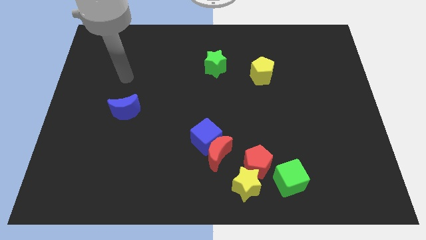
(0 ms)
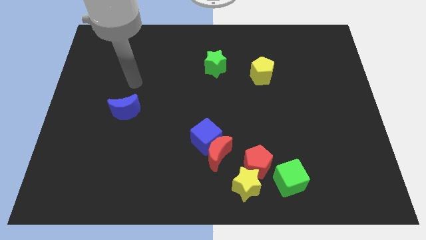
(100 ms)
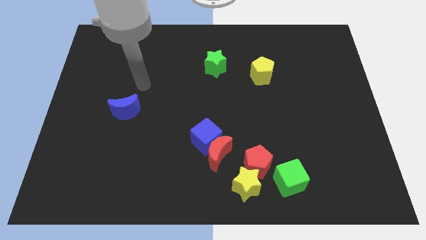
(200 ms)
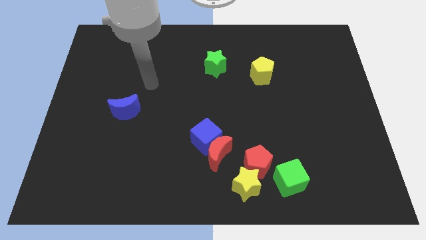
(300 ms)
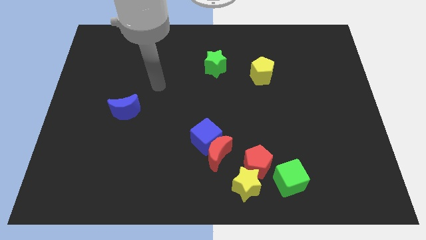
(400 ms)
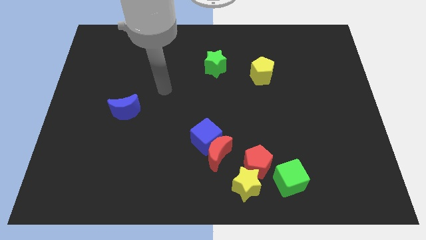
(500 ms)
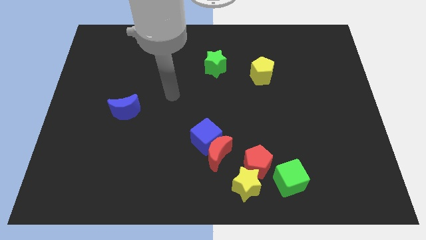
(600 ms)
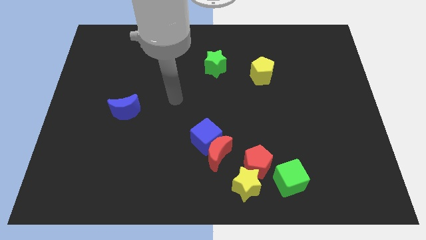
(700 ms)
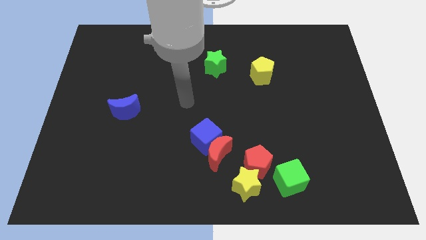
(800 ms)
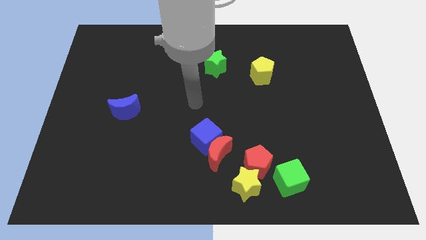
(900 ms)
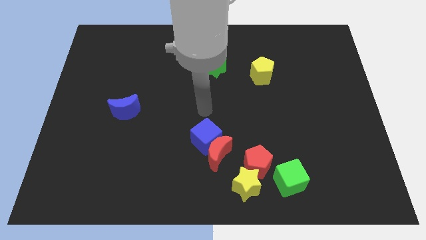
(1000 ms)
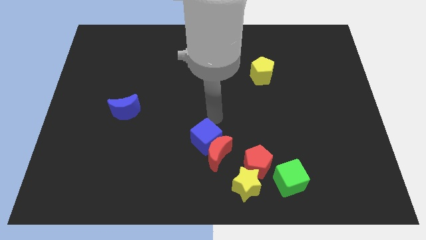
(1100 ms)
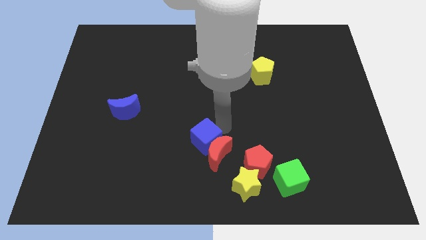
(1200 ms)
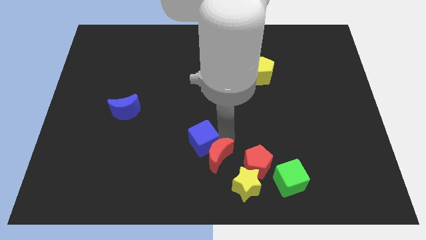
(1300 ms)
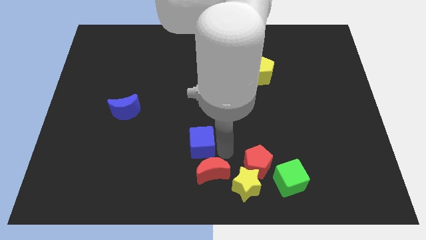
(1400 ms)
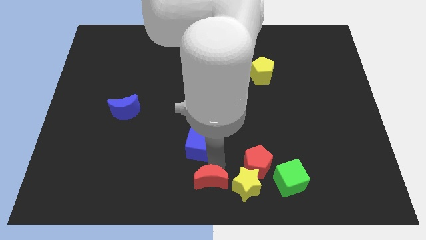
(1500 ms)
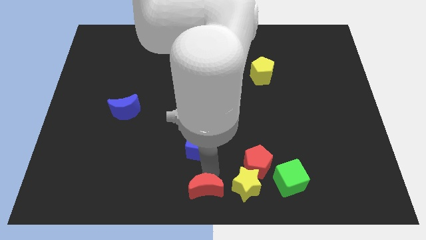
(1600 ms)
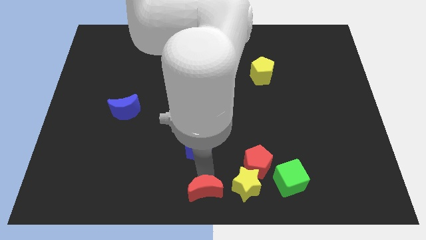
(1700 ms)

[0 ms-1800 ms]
separate the blue cube from the red moon

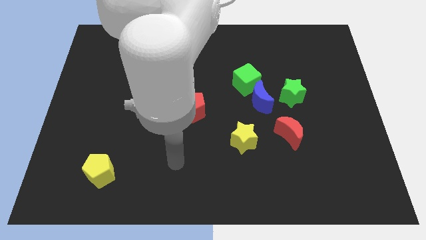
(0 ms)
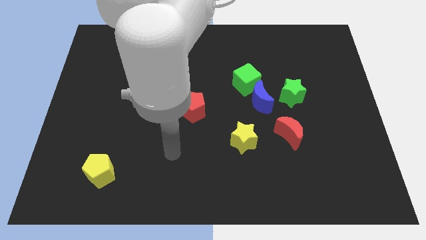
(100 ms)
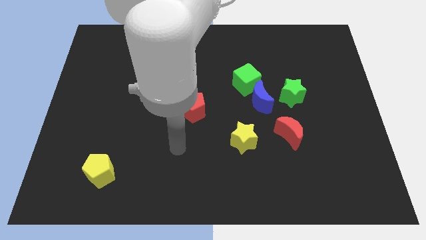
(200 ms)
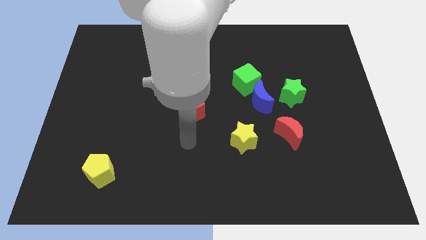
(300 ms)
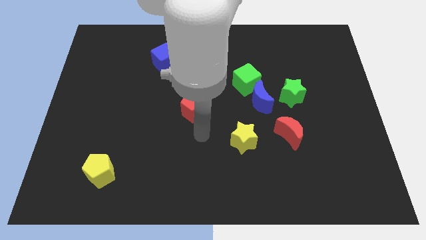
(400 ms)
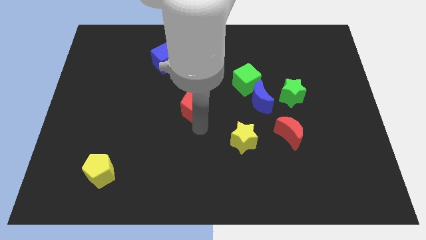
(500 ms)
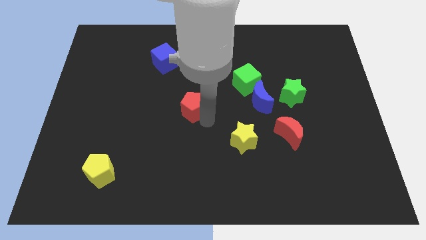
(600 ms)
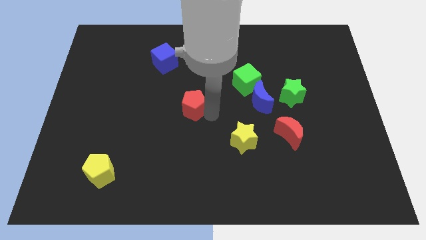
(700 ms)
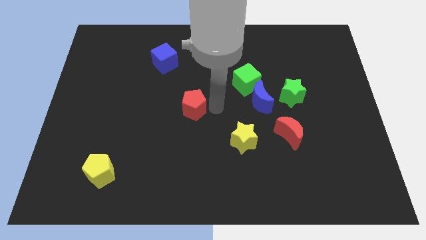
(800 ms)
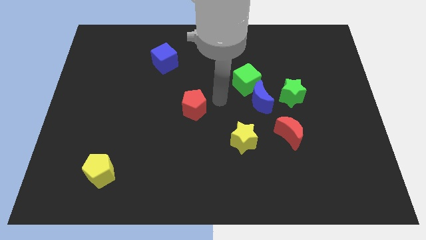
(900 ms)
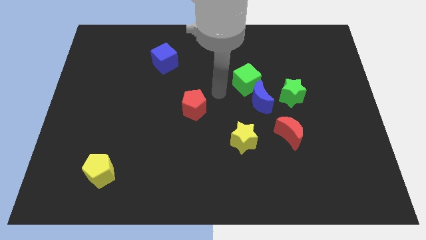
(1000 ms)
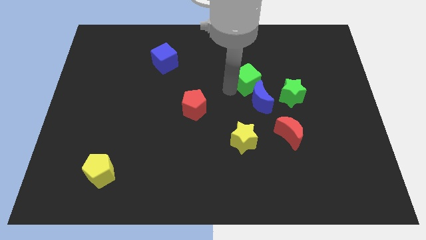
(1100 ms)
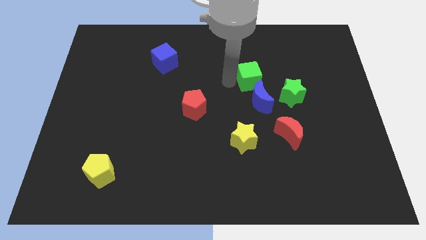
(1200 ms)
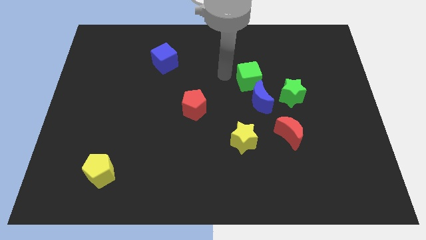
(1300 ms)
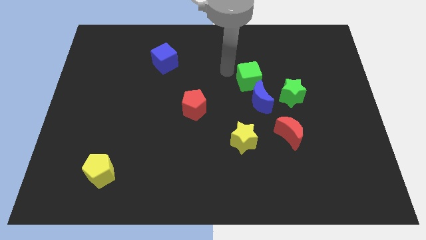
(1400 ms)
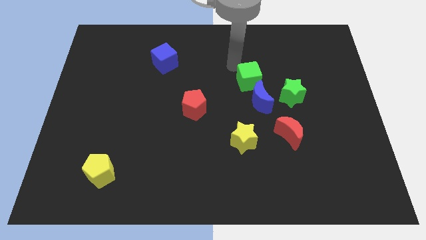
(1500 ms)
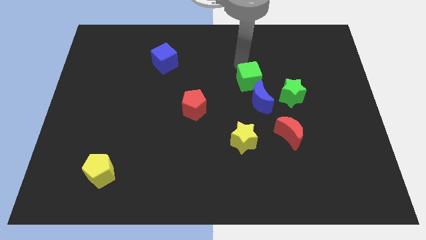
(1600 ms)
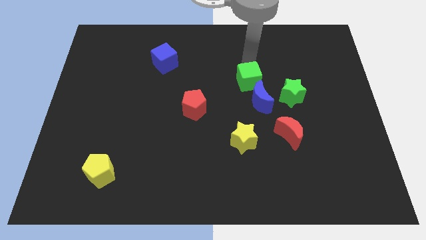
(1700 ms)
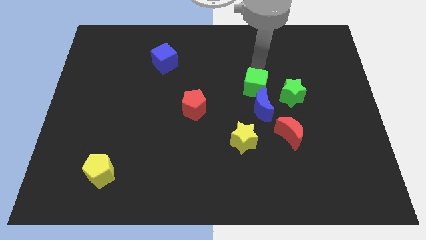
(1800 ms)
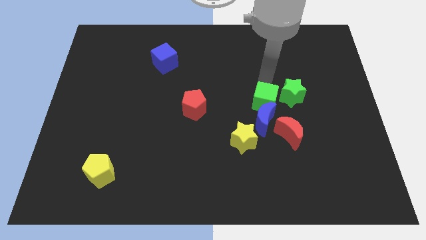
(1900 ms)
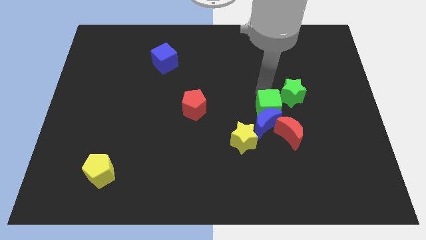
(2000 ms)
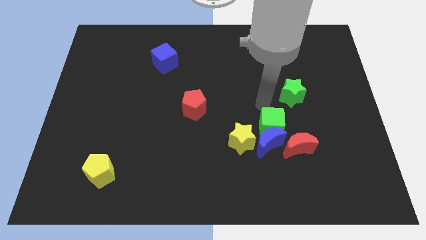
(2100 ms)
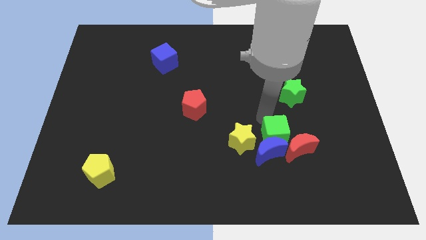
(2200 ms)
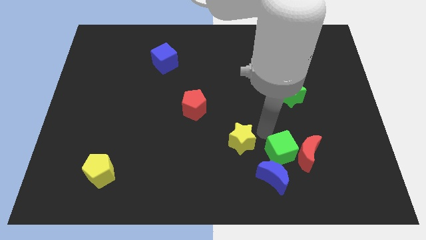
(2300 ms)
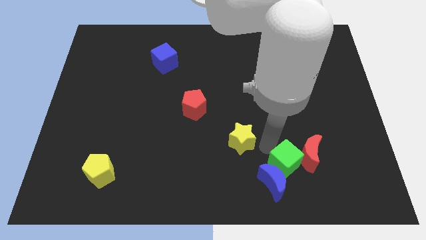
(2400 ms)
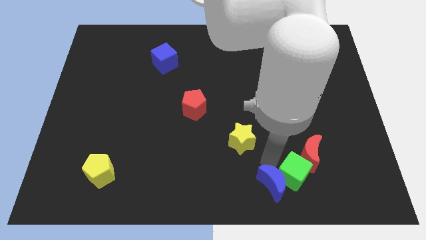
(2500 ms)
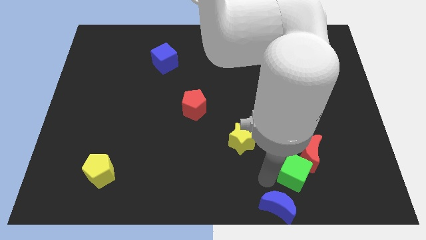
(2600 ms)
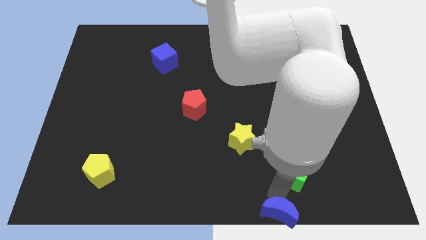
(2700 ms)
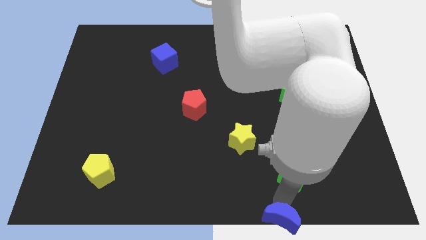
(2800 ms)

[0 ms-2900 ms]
pull the green cube apart from the blue moon

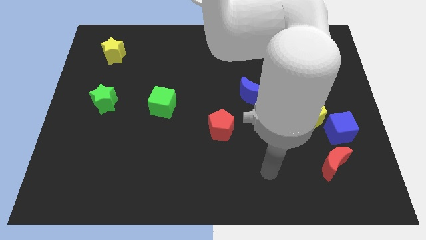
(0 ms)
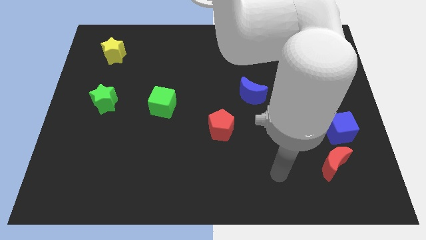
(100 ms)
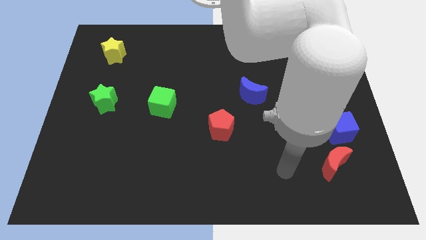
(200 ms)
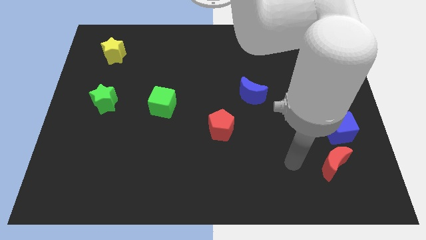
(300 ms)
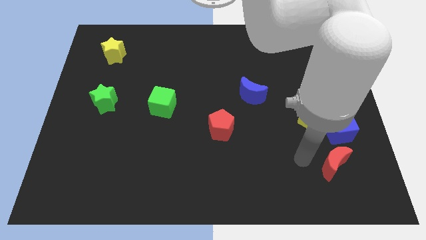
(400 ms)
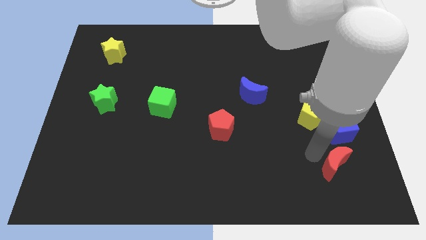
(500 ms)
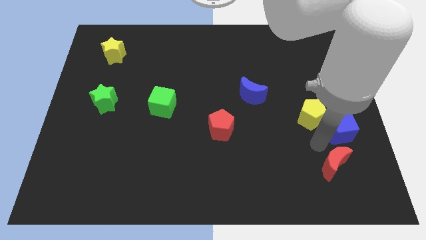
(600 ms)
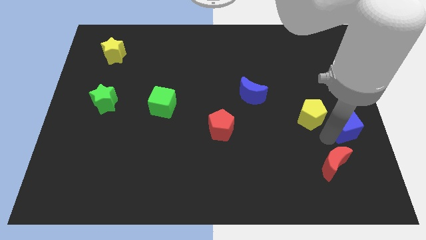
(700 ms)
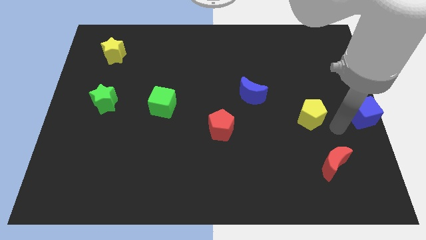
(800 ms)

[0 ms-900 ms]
separate the yellow pentagon from the blue cube

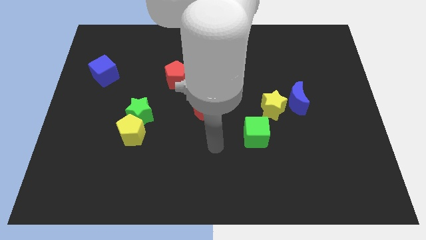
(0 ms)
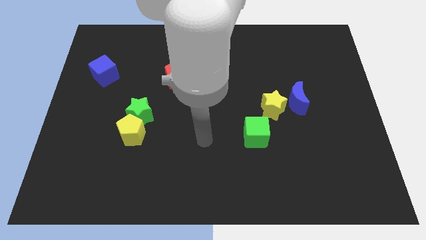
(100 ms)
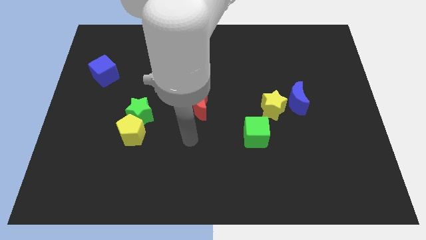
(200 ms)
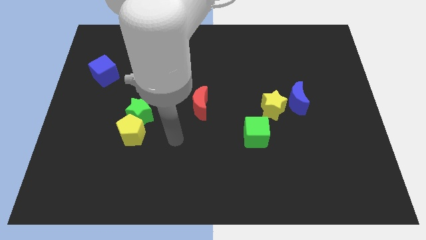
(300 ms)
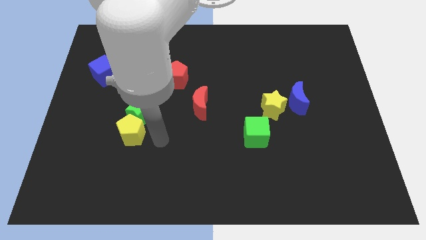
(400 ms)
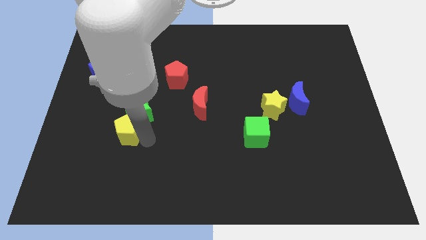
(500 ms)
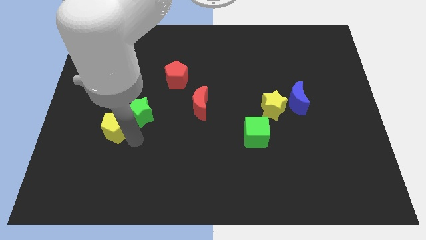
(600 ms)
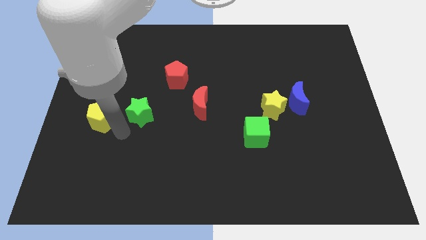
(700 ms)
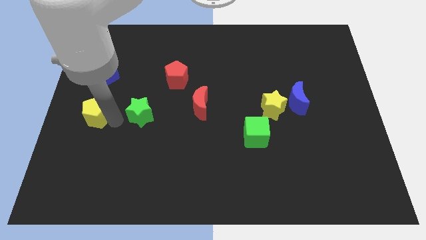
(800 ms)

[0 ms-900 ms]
move the green star away from the yellow pentagon

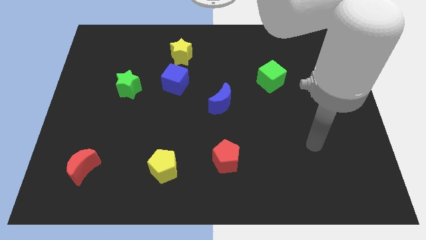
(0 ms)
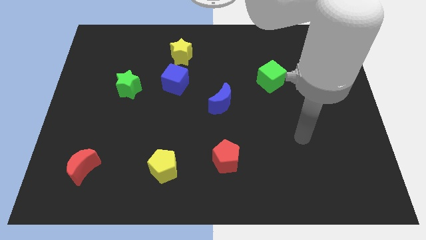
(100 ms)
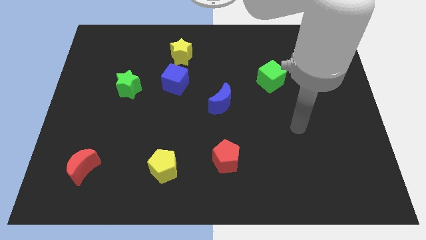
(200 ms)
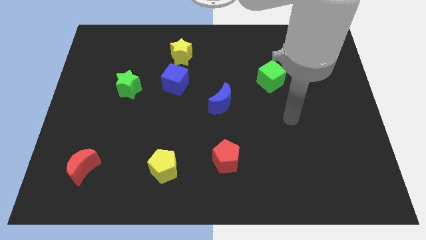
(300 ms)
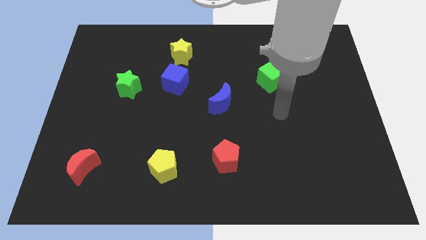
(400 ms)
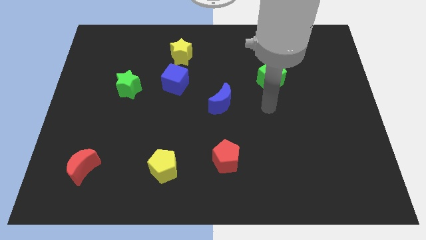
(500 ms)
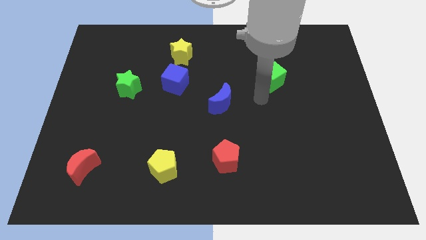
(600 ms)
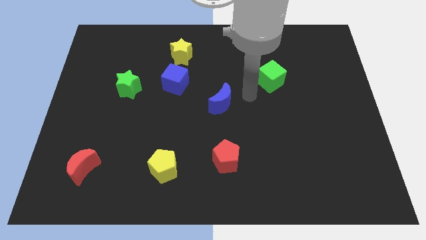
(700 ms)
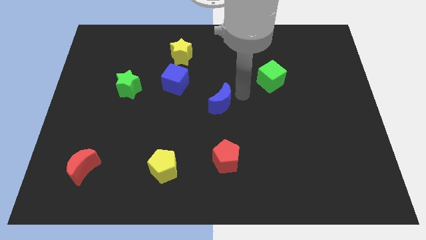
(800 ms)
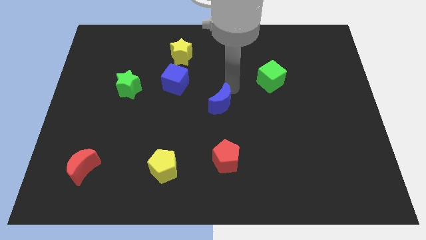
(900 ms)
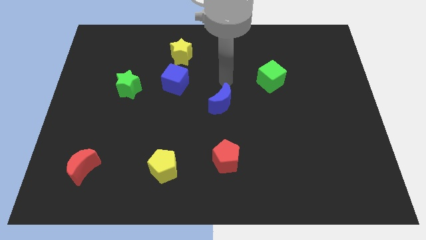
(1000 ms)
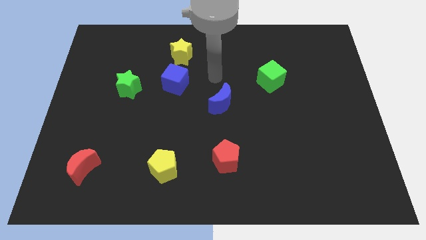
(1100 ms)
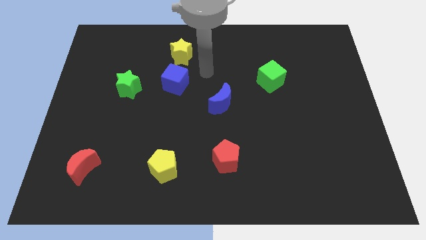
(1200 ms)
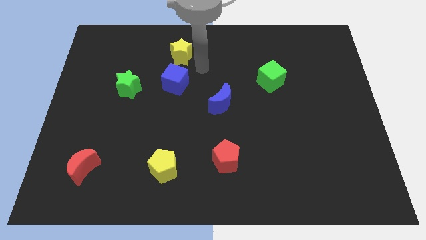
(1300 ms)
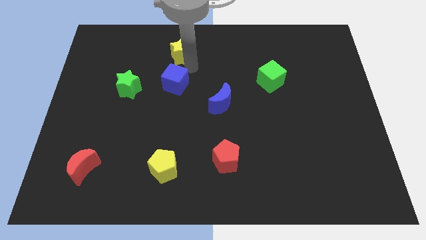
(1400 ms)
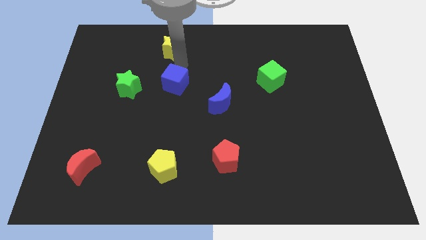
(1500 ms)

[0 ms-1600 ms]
separate the blue cube from the yellow star

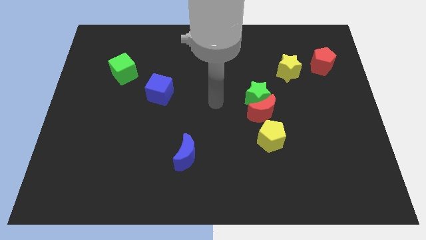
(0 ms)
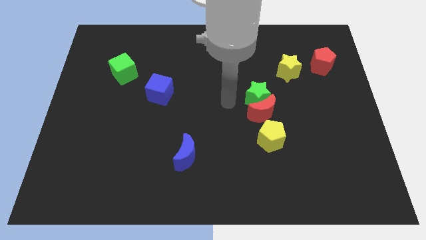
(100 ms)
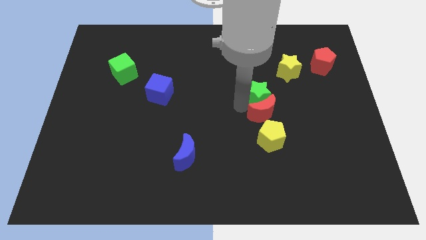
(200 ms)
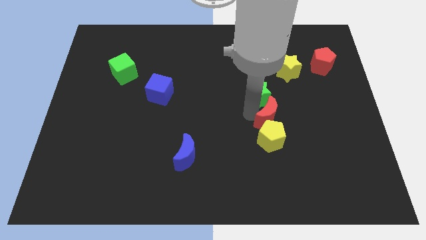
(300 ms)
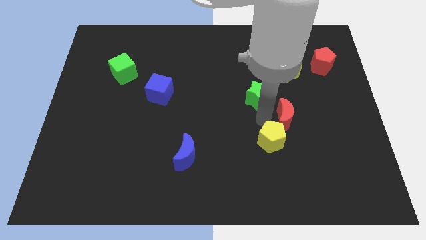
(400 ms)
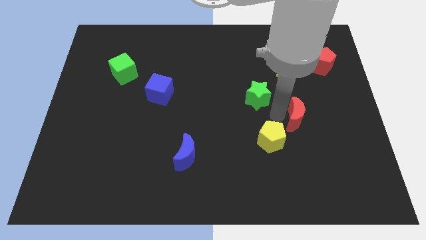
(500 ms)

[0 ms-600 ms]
move the green star away from the red moon

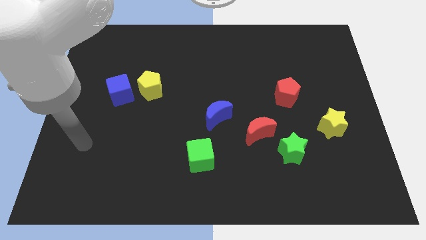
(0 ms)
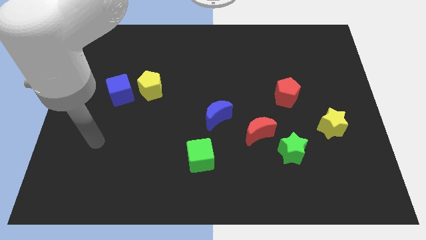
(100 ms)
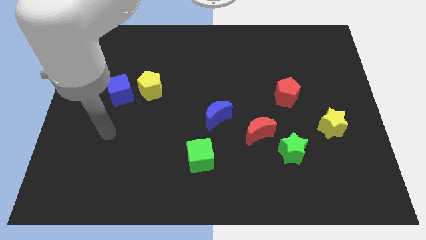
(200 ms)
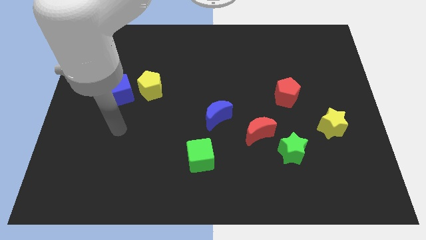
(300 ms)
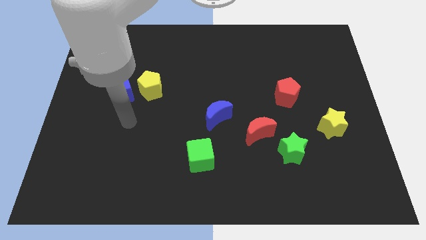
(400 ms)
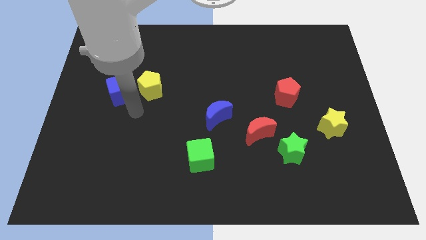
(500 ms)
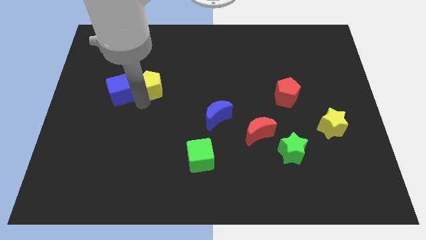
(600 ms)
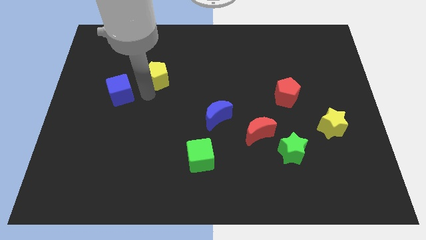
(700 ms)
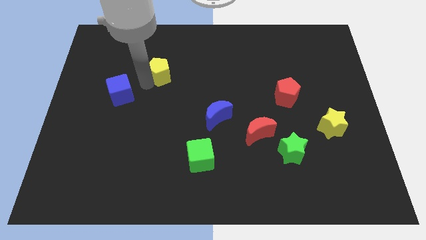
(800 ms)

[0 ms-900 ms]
separate the blue cube from the yellow pentagon
